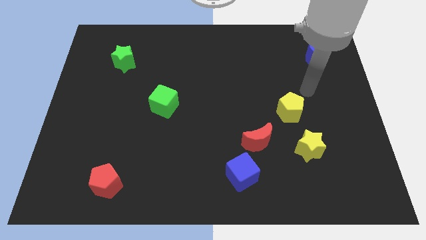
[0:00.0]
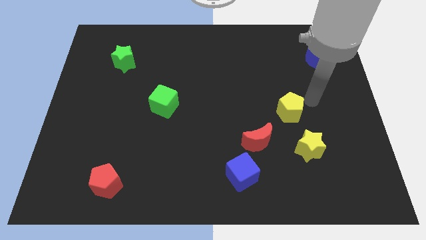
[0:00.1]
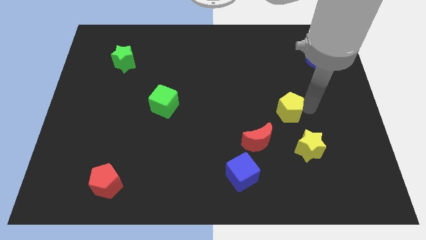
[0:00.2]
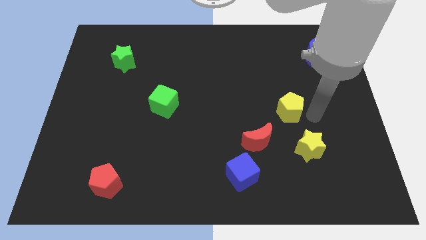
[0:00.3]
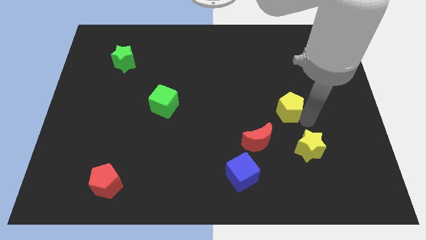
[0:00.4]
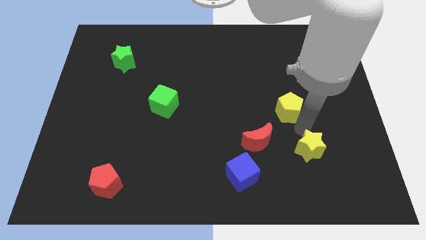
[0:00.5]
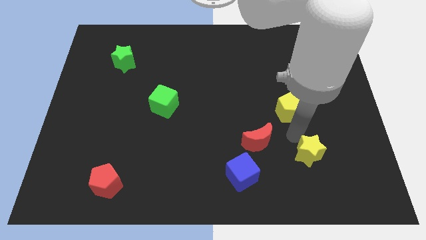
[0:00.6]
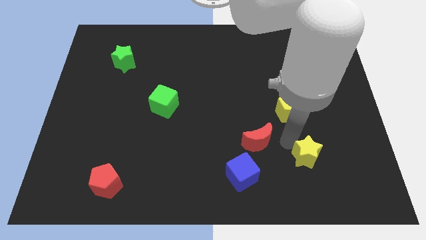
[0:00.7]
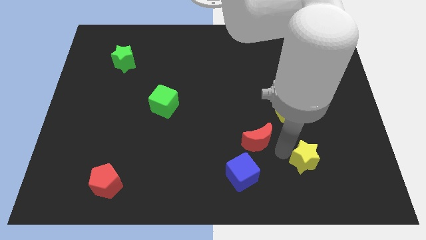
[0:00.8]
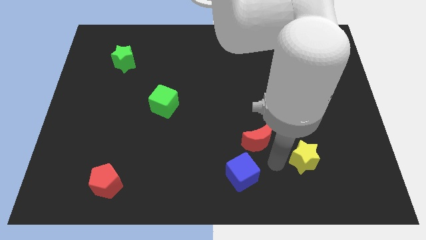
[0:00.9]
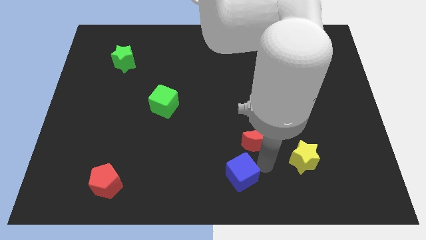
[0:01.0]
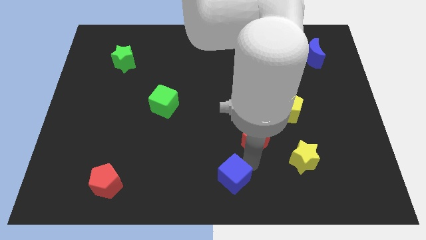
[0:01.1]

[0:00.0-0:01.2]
move the red moon away from the blue cube

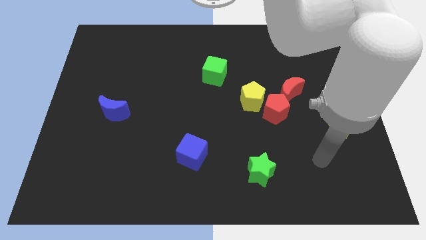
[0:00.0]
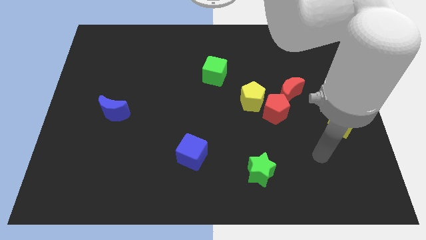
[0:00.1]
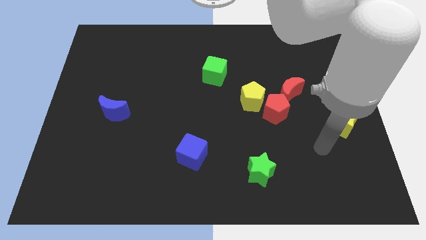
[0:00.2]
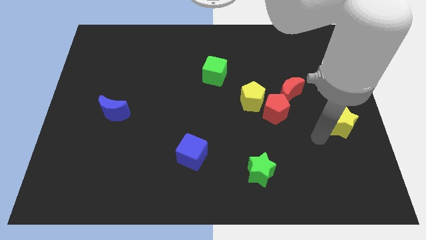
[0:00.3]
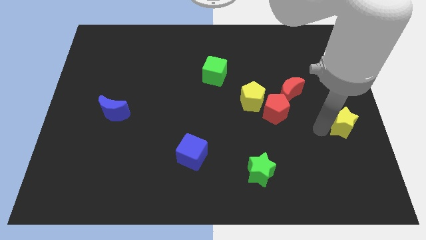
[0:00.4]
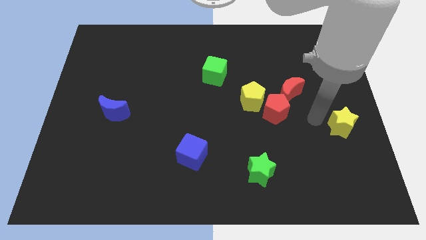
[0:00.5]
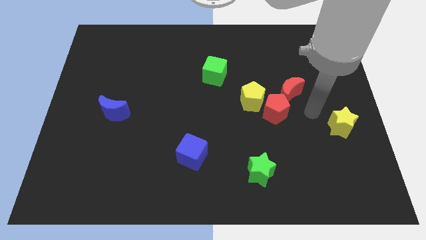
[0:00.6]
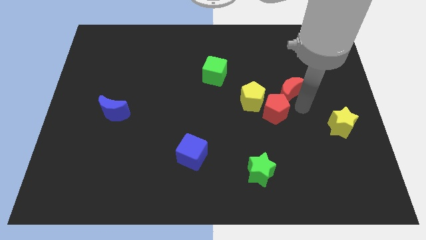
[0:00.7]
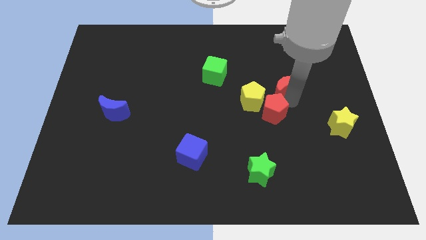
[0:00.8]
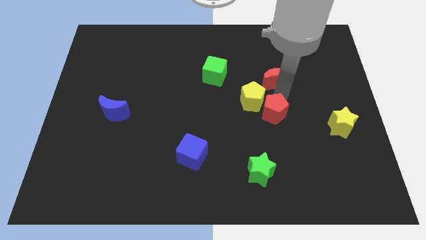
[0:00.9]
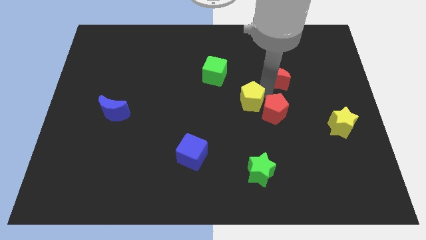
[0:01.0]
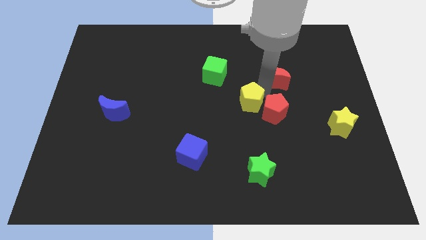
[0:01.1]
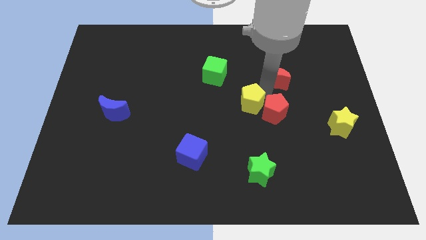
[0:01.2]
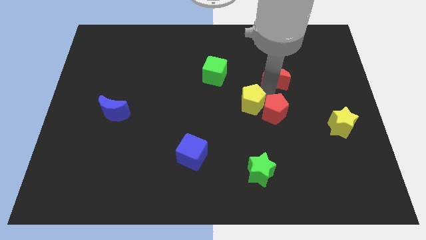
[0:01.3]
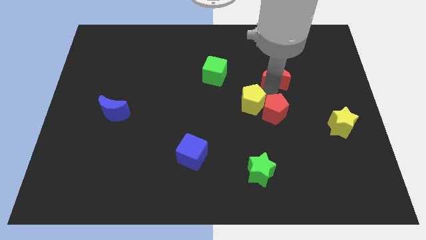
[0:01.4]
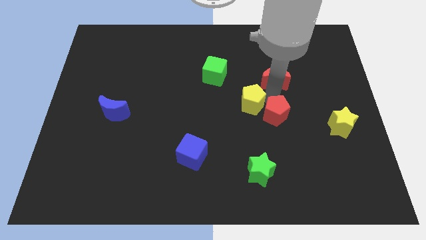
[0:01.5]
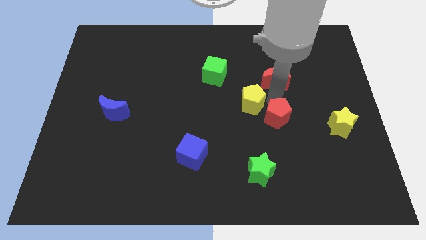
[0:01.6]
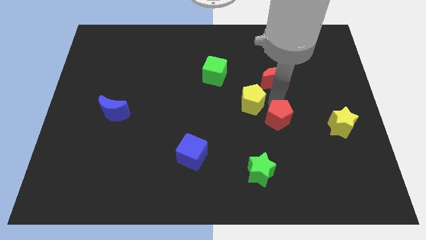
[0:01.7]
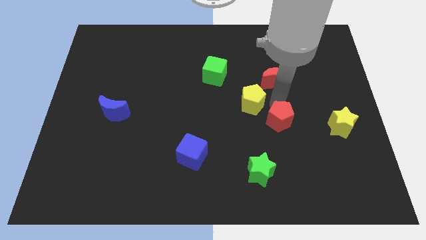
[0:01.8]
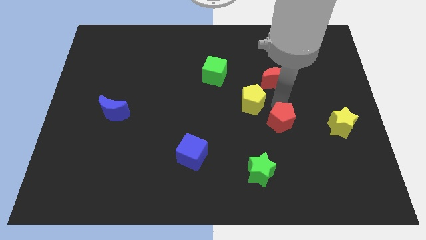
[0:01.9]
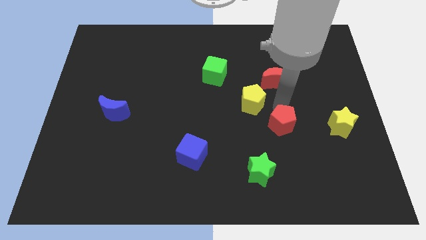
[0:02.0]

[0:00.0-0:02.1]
separate the red pentagon from the yellow pentagon and red moon

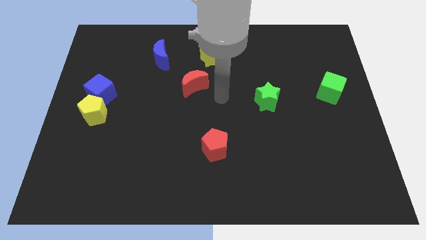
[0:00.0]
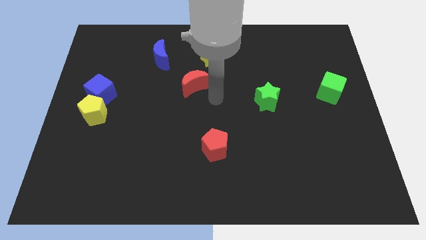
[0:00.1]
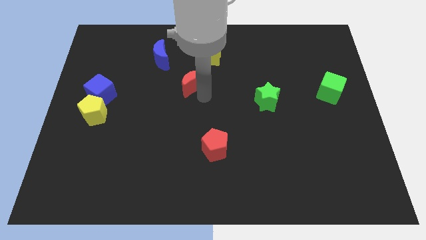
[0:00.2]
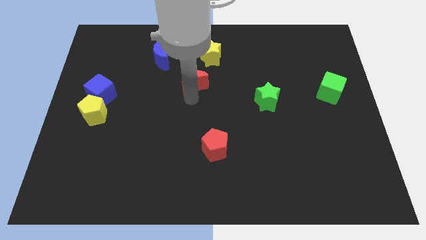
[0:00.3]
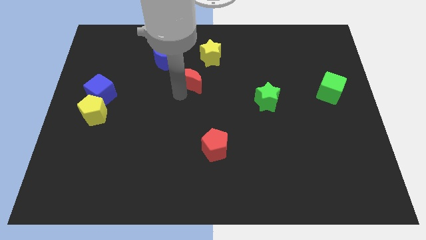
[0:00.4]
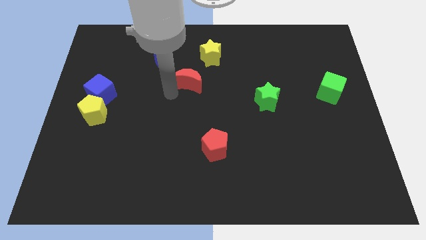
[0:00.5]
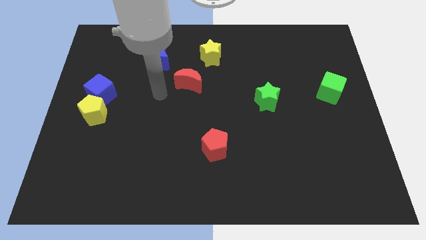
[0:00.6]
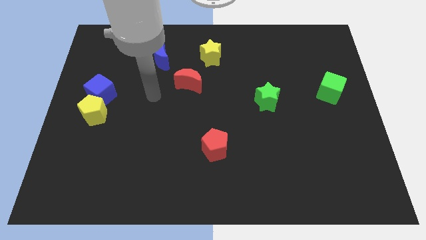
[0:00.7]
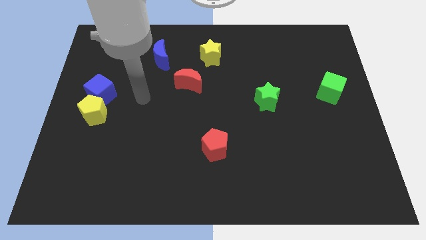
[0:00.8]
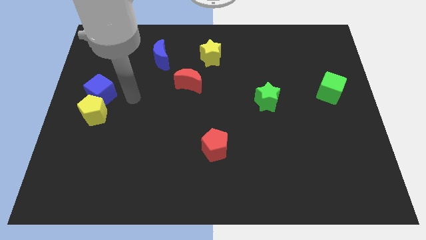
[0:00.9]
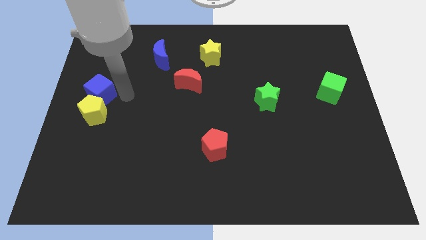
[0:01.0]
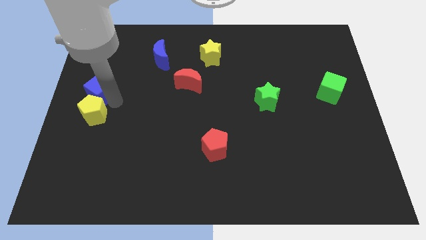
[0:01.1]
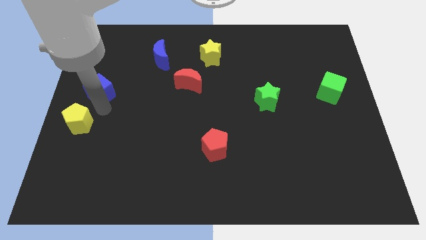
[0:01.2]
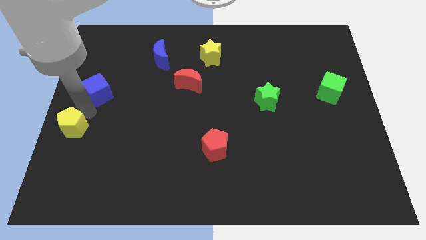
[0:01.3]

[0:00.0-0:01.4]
separate the blue cube from the yellow pentagon

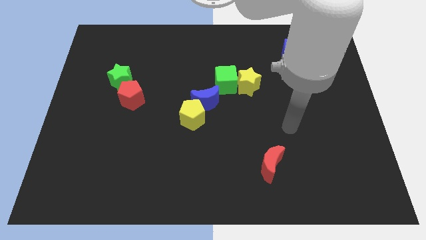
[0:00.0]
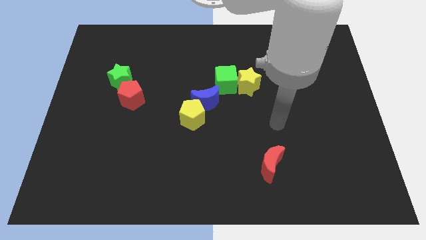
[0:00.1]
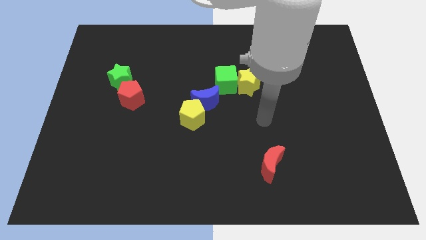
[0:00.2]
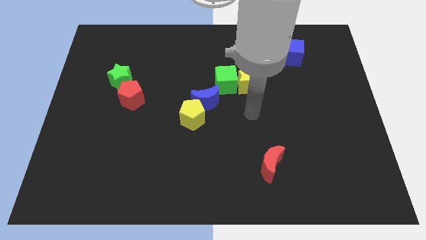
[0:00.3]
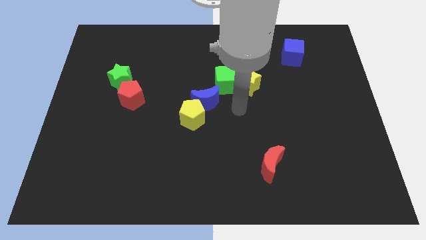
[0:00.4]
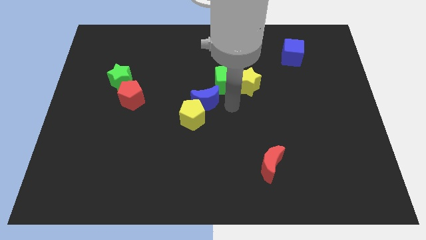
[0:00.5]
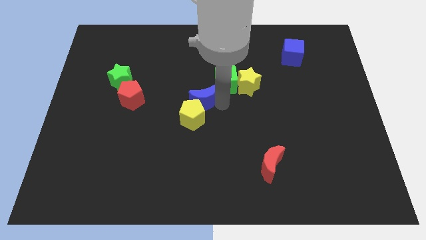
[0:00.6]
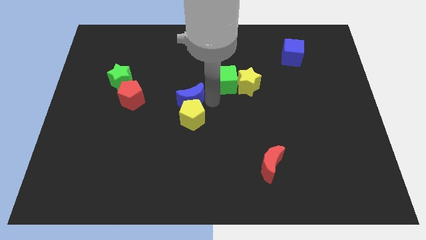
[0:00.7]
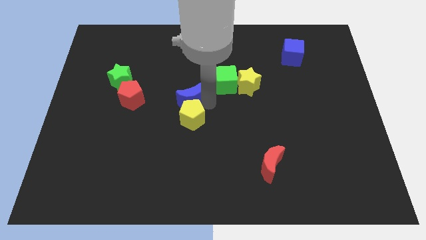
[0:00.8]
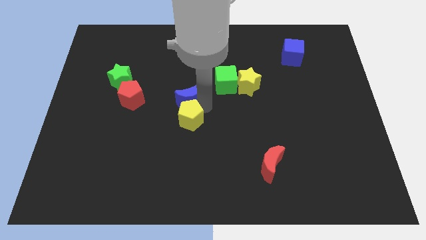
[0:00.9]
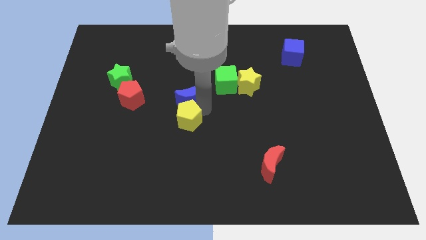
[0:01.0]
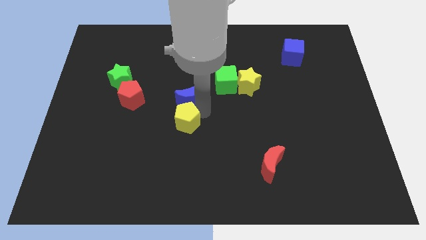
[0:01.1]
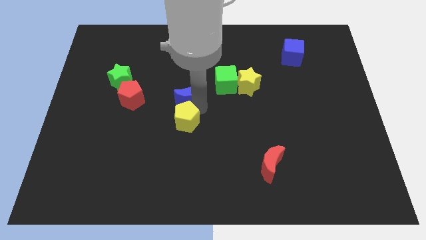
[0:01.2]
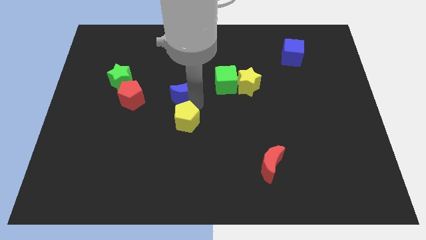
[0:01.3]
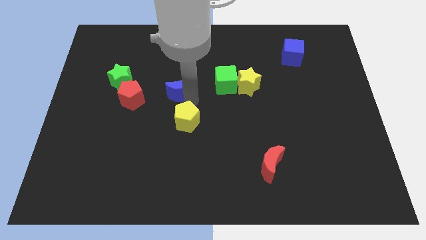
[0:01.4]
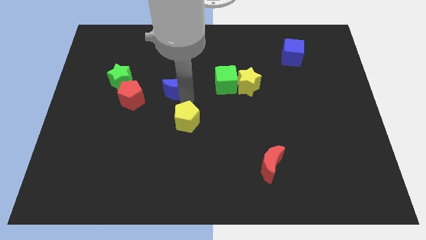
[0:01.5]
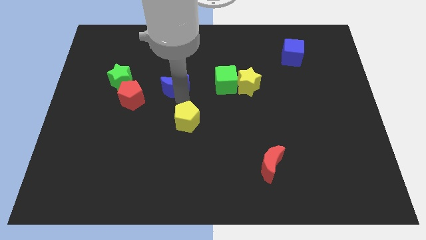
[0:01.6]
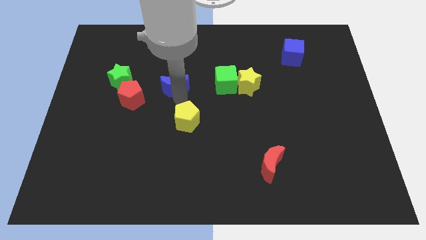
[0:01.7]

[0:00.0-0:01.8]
separate the yellow pentagon from the blue moon

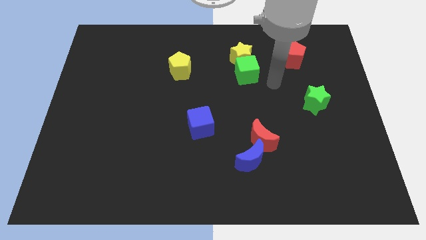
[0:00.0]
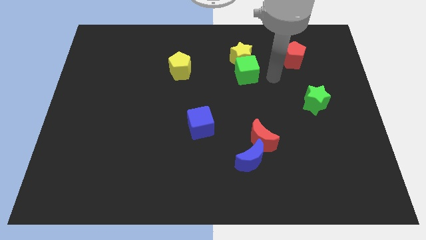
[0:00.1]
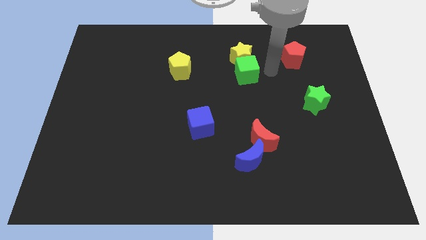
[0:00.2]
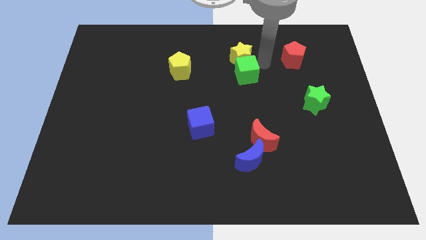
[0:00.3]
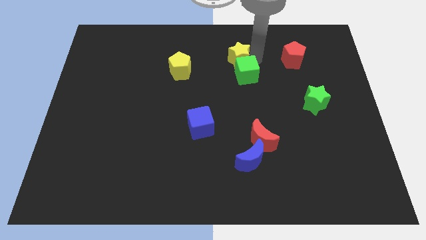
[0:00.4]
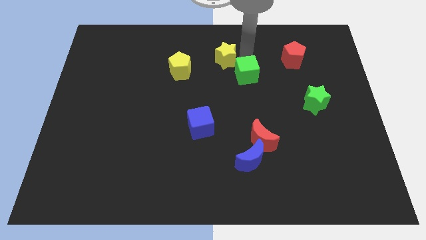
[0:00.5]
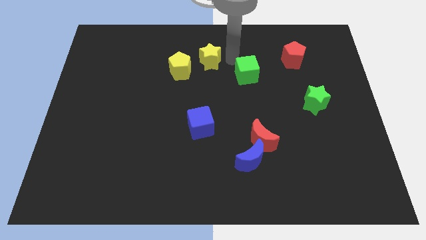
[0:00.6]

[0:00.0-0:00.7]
move the green cube away from the yellow star

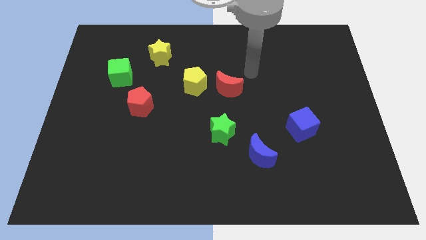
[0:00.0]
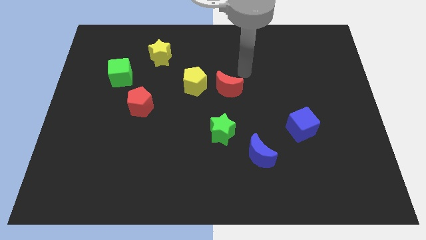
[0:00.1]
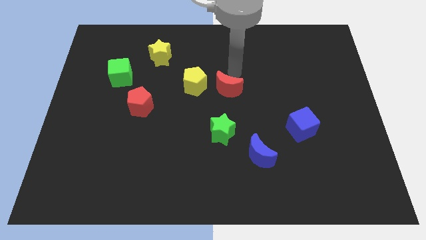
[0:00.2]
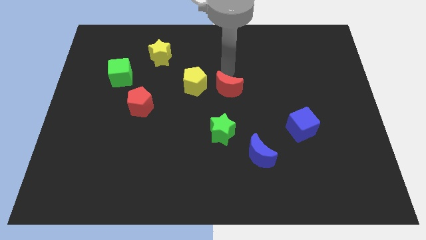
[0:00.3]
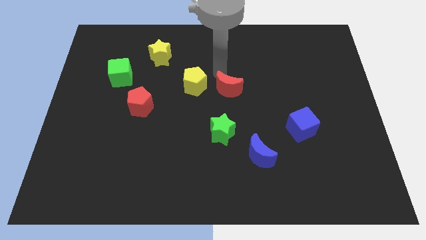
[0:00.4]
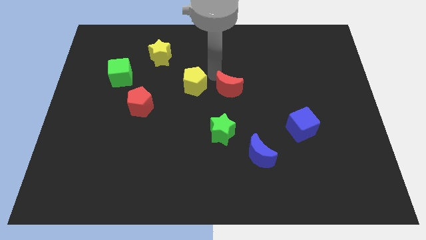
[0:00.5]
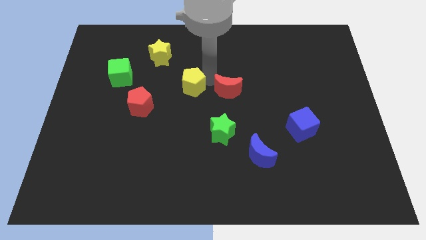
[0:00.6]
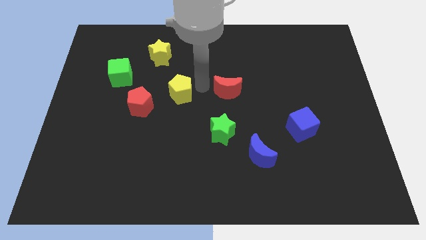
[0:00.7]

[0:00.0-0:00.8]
pull the red moon apart from the yellow pentagon

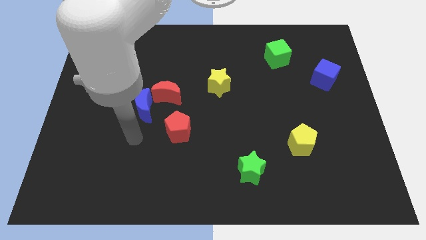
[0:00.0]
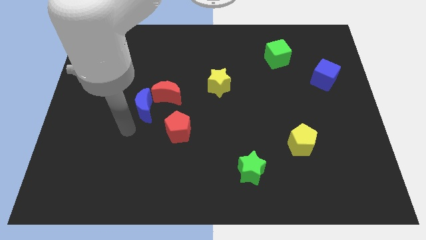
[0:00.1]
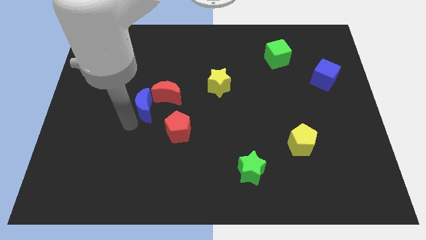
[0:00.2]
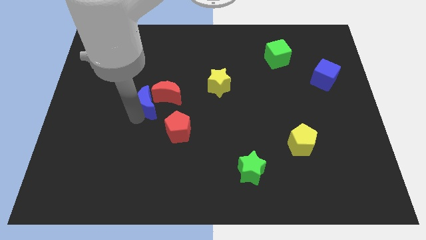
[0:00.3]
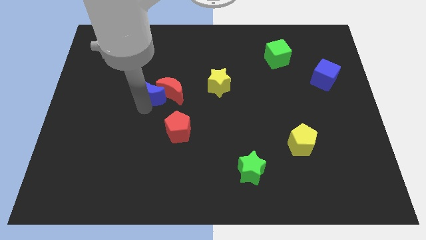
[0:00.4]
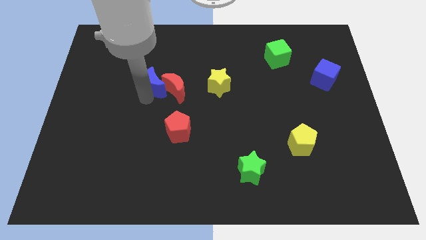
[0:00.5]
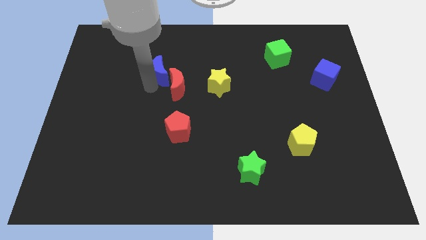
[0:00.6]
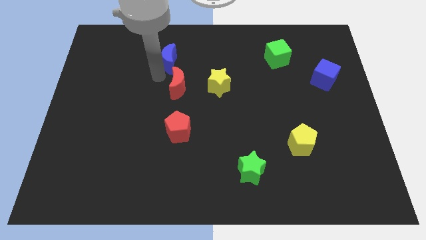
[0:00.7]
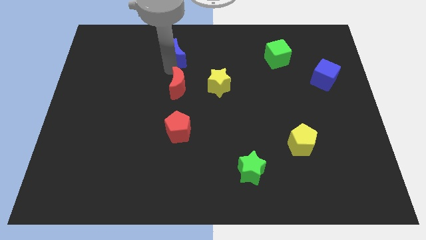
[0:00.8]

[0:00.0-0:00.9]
pull the red moon apart from the blue moon

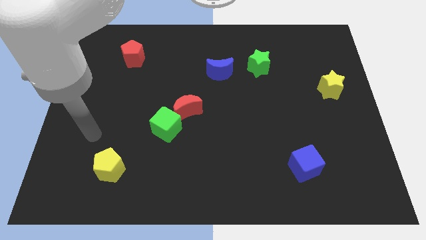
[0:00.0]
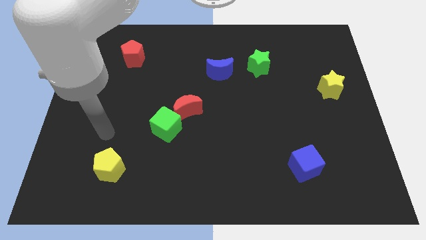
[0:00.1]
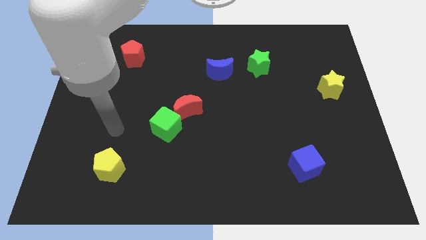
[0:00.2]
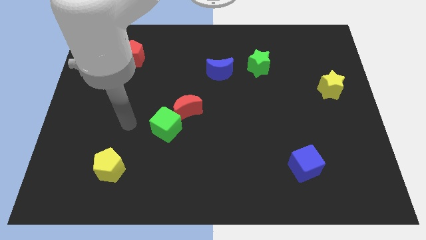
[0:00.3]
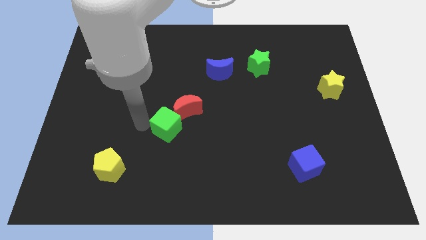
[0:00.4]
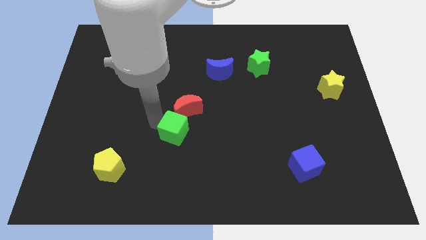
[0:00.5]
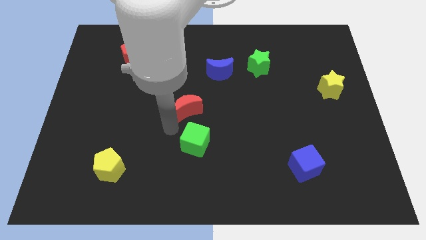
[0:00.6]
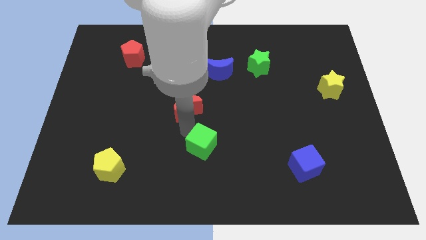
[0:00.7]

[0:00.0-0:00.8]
pull the red moon apart from the green cube
